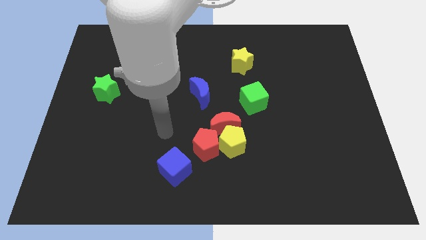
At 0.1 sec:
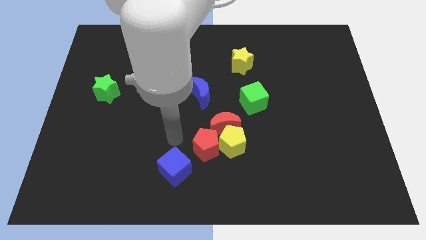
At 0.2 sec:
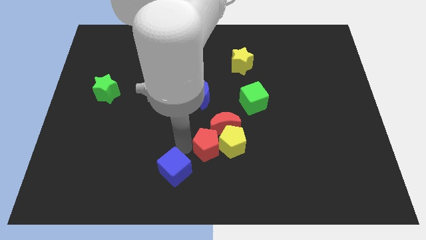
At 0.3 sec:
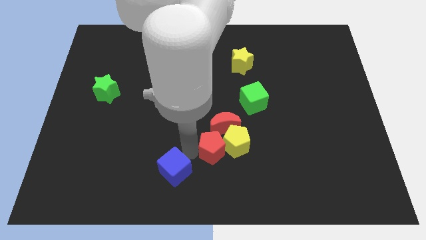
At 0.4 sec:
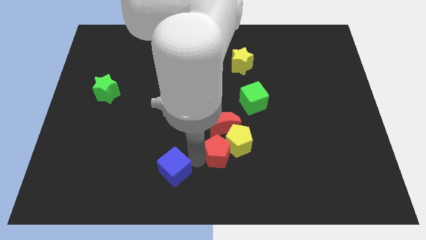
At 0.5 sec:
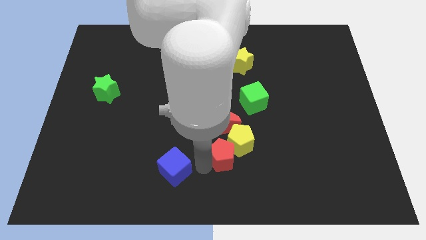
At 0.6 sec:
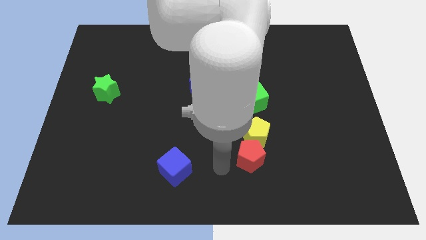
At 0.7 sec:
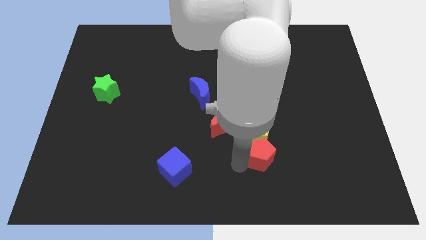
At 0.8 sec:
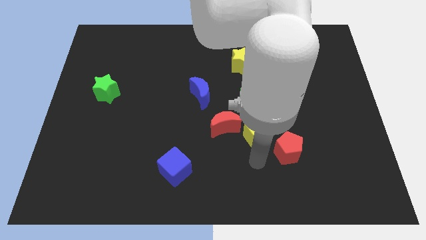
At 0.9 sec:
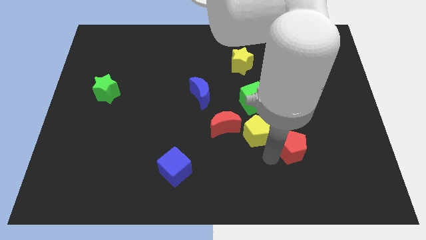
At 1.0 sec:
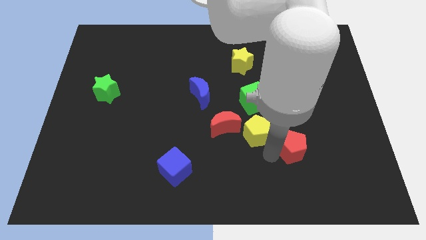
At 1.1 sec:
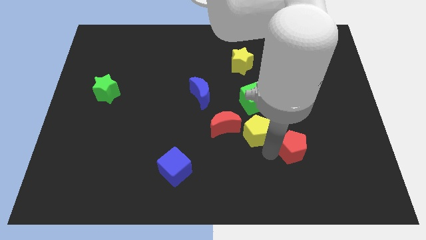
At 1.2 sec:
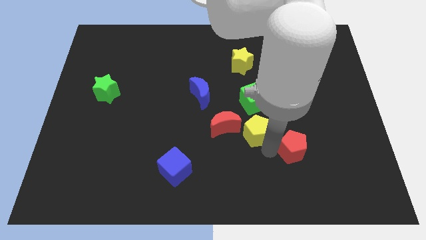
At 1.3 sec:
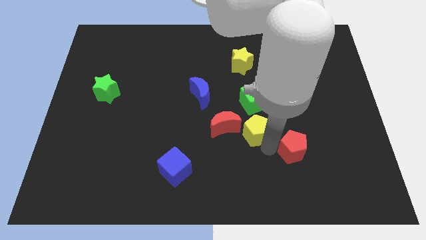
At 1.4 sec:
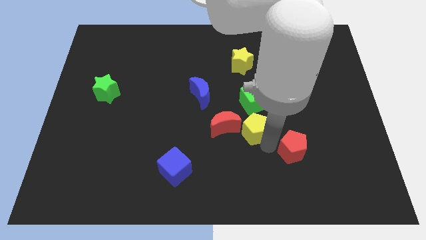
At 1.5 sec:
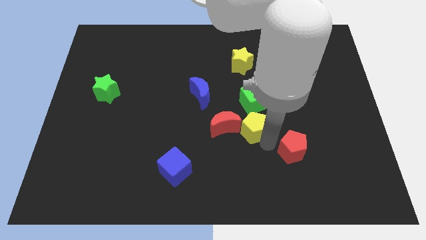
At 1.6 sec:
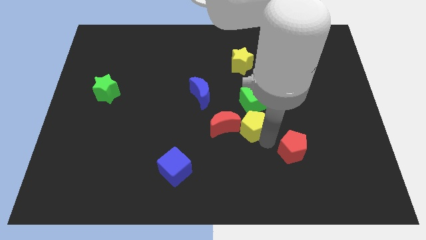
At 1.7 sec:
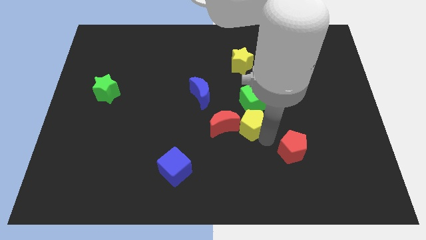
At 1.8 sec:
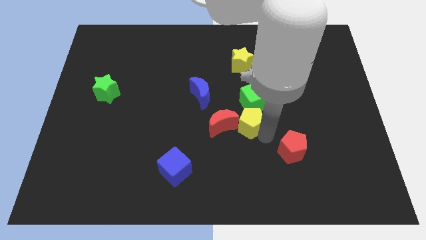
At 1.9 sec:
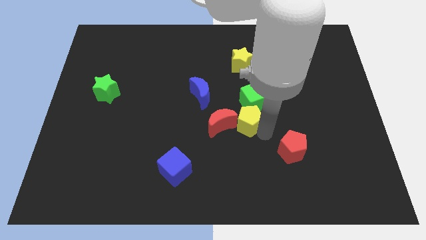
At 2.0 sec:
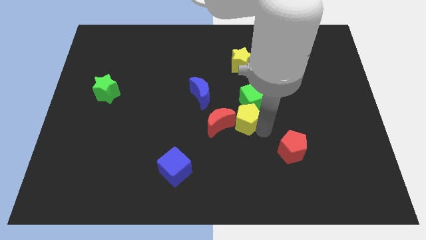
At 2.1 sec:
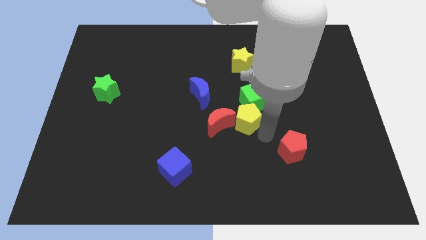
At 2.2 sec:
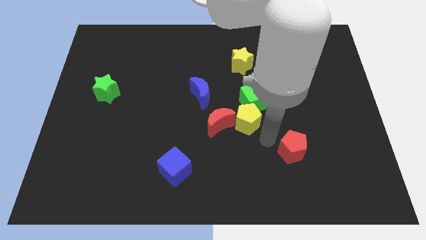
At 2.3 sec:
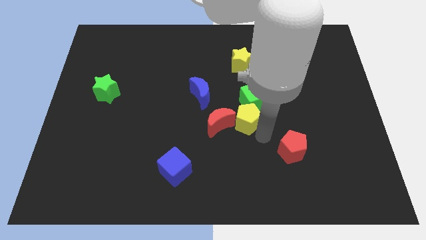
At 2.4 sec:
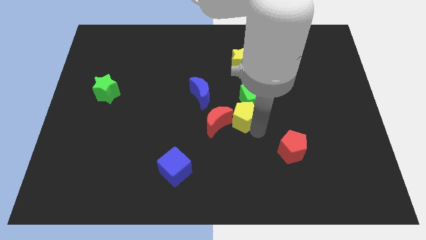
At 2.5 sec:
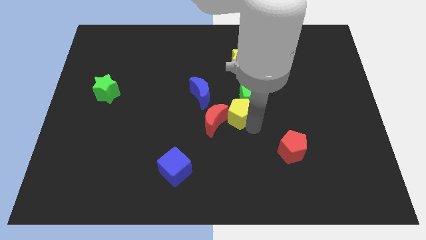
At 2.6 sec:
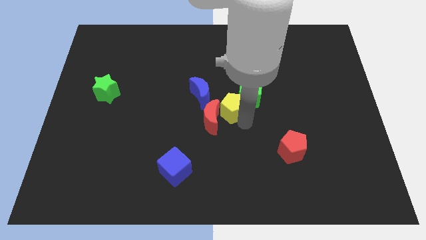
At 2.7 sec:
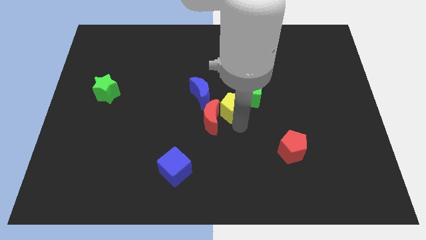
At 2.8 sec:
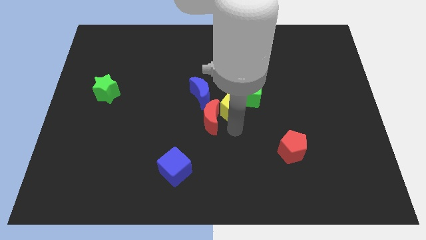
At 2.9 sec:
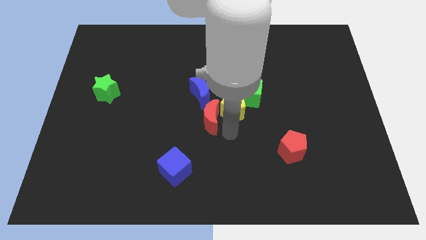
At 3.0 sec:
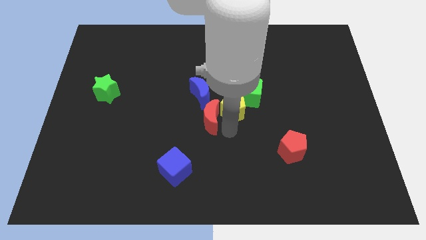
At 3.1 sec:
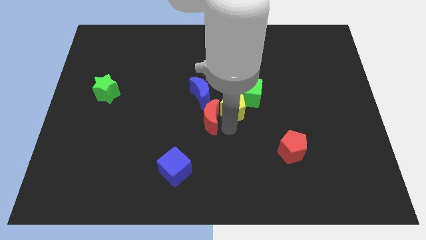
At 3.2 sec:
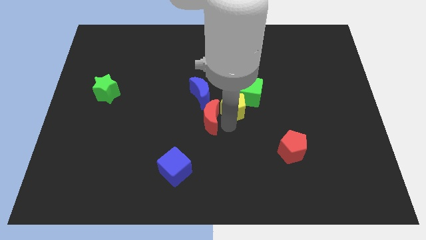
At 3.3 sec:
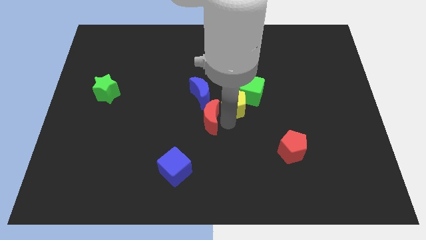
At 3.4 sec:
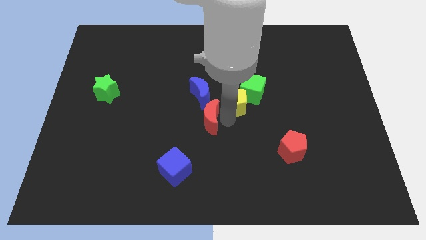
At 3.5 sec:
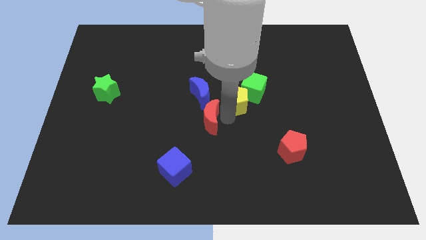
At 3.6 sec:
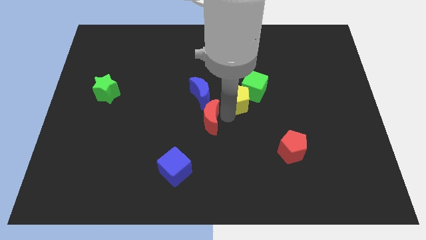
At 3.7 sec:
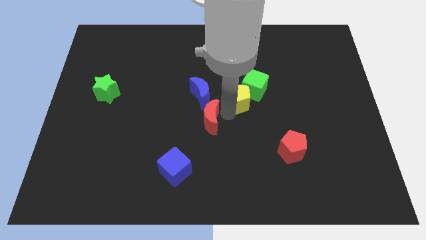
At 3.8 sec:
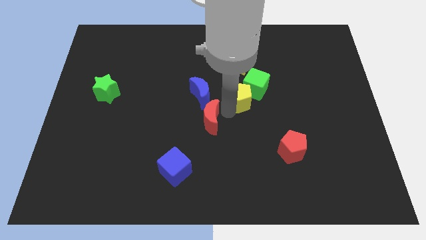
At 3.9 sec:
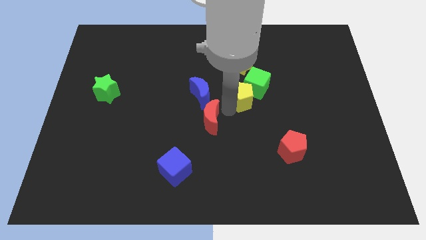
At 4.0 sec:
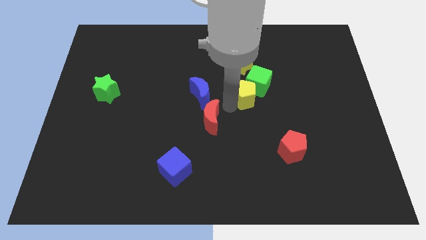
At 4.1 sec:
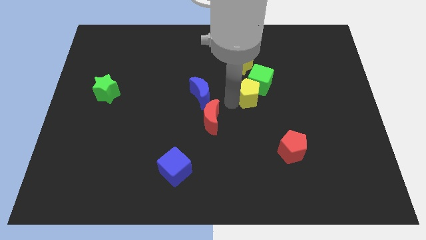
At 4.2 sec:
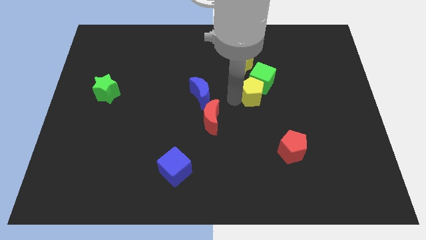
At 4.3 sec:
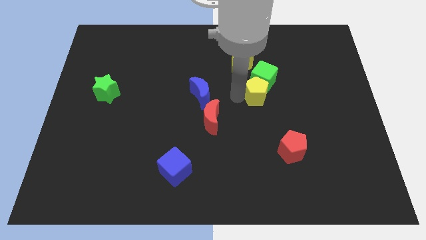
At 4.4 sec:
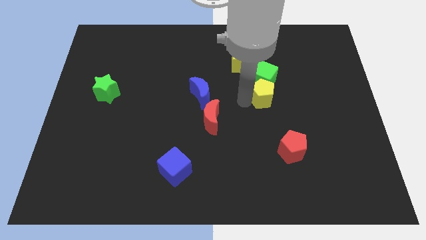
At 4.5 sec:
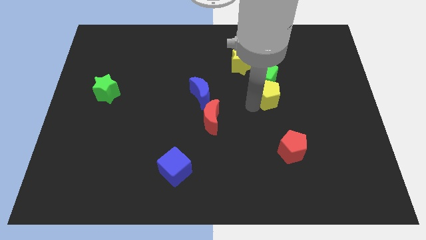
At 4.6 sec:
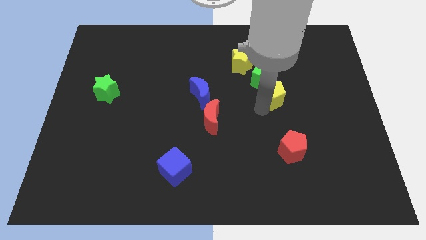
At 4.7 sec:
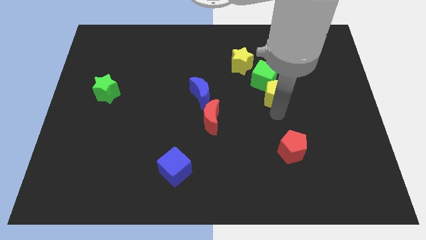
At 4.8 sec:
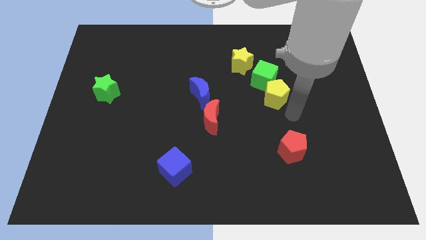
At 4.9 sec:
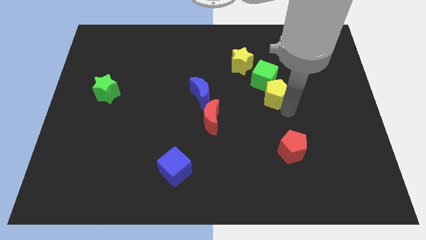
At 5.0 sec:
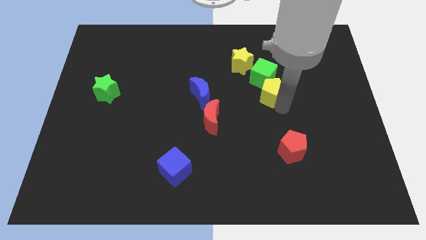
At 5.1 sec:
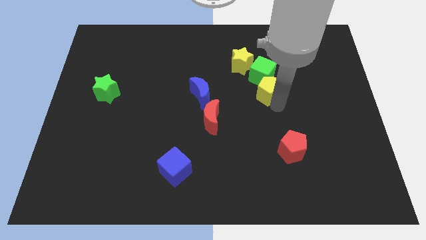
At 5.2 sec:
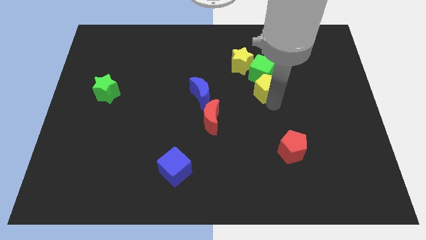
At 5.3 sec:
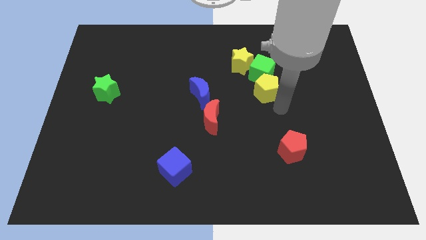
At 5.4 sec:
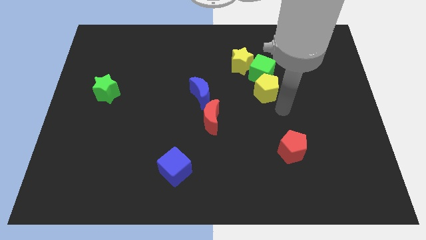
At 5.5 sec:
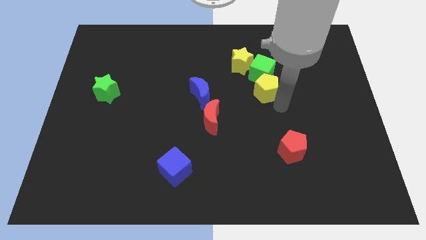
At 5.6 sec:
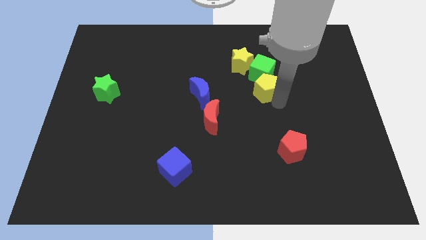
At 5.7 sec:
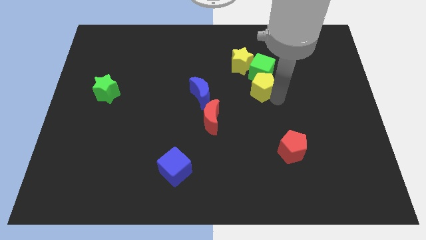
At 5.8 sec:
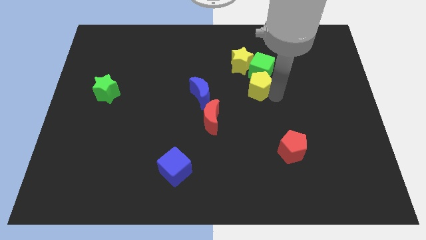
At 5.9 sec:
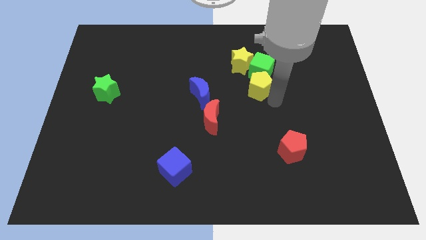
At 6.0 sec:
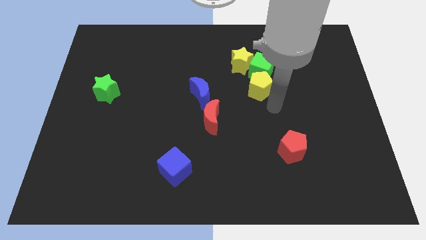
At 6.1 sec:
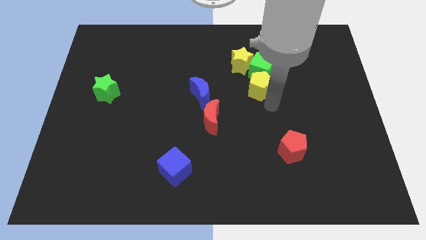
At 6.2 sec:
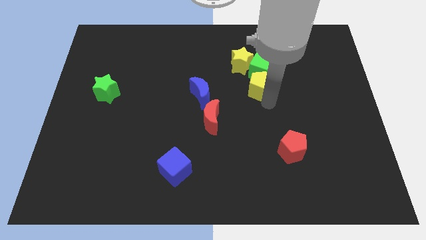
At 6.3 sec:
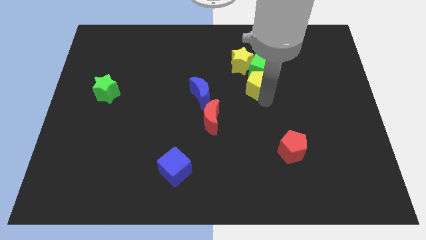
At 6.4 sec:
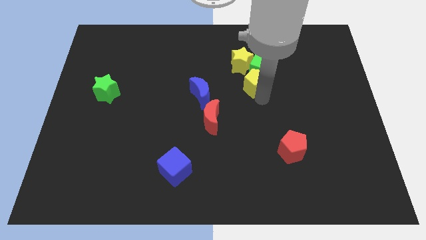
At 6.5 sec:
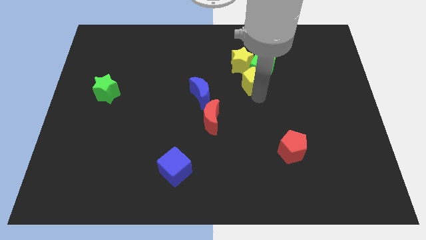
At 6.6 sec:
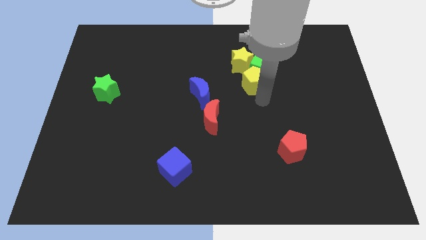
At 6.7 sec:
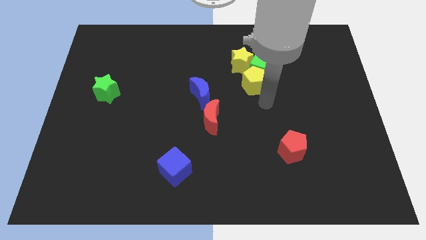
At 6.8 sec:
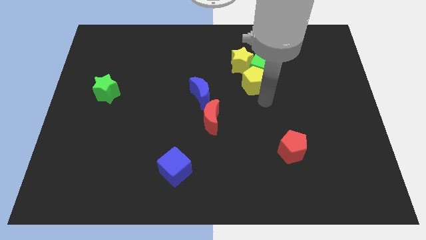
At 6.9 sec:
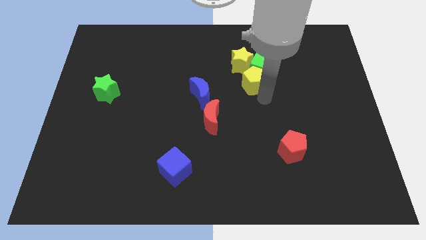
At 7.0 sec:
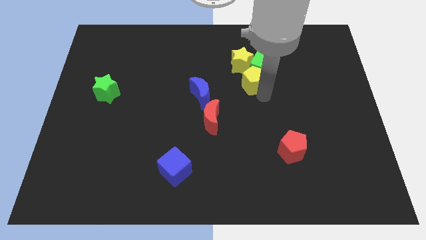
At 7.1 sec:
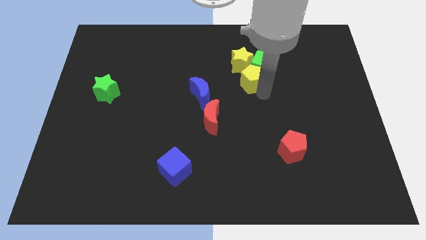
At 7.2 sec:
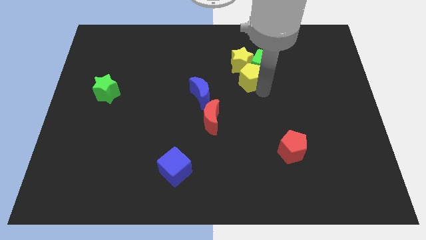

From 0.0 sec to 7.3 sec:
push the yellow pentagon close to the yellow star
